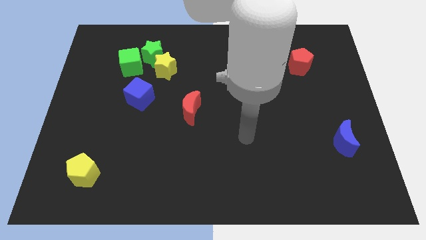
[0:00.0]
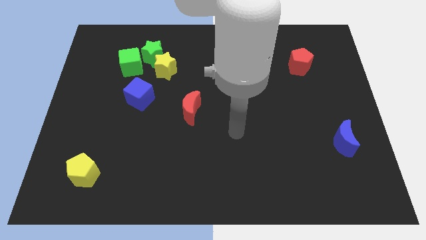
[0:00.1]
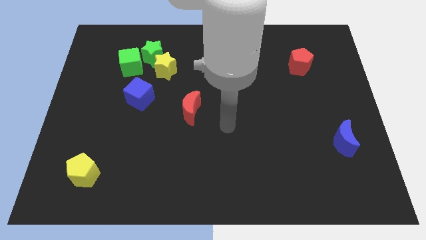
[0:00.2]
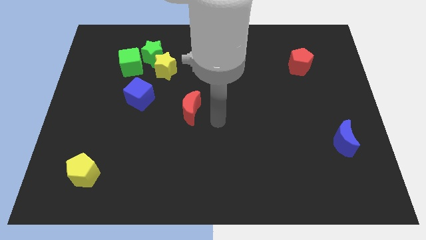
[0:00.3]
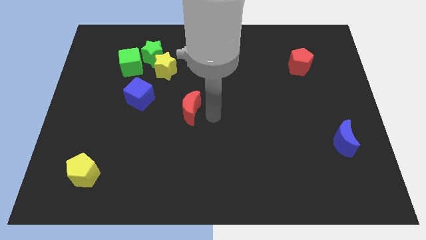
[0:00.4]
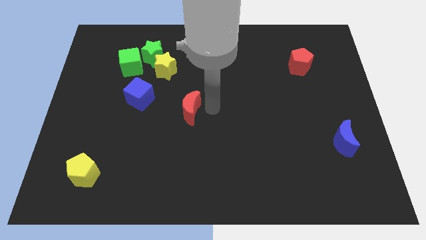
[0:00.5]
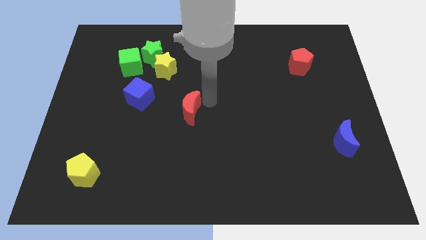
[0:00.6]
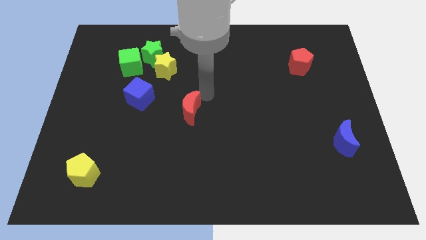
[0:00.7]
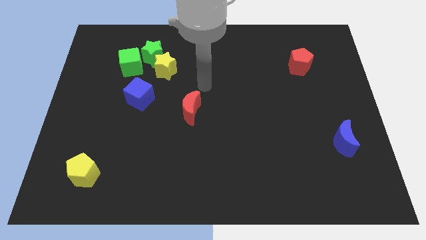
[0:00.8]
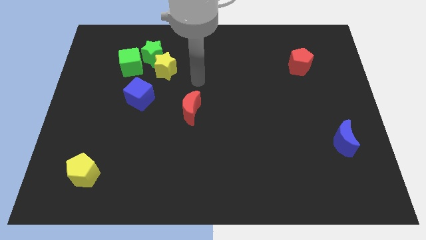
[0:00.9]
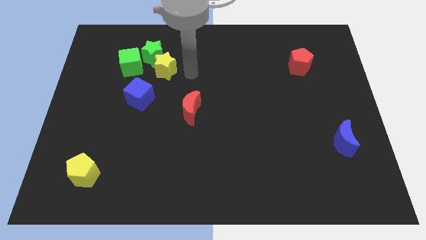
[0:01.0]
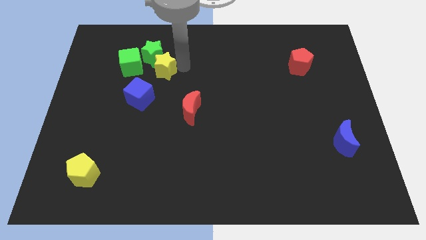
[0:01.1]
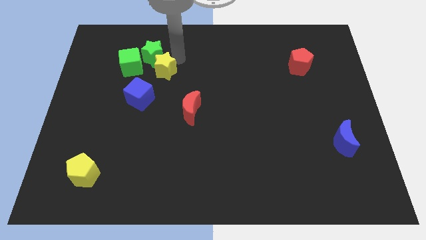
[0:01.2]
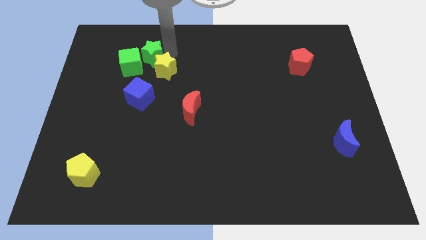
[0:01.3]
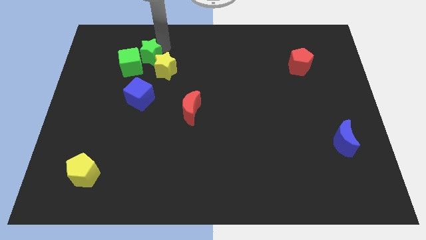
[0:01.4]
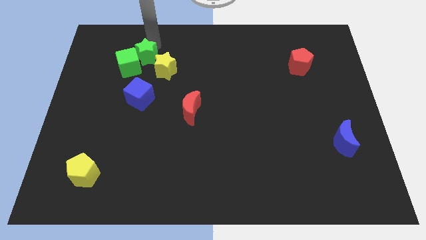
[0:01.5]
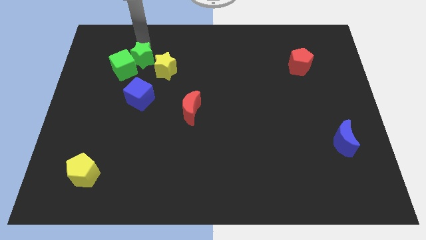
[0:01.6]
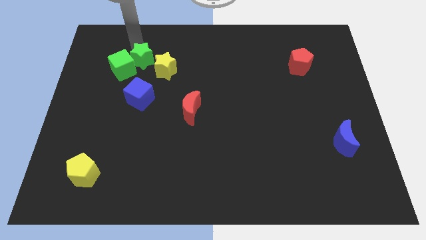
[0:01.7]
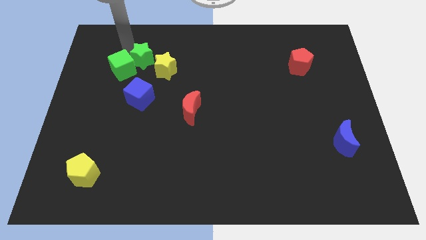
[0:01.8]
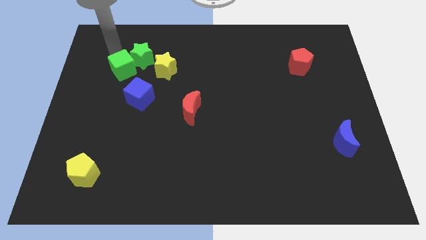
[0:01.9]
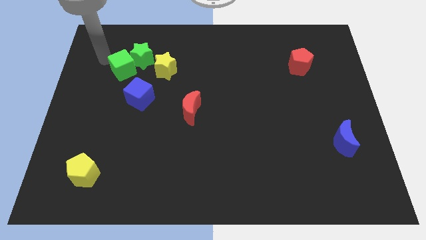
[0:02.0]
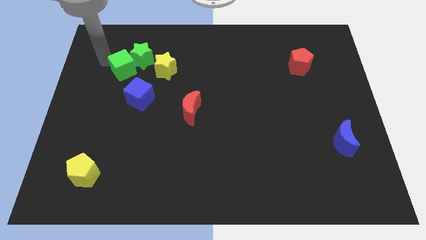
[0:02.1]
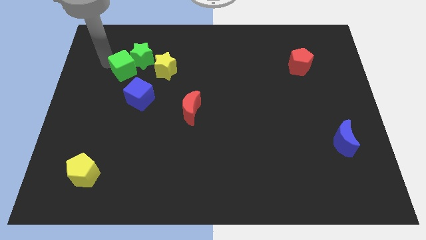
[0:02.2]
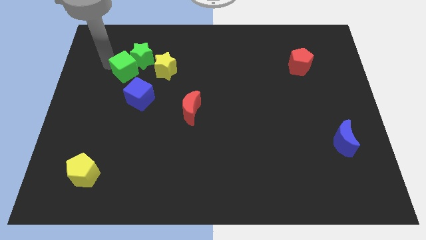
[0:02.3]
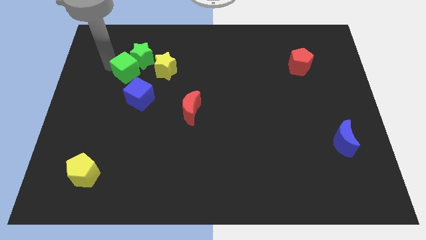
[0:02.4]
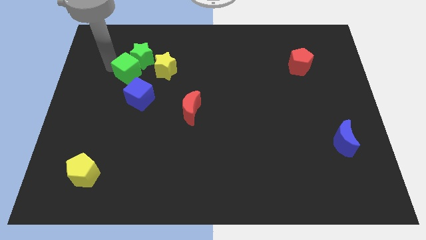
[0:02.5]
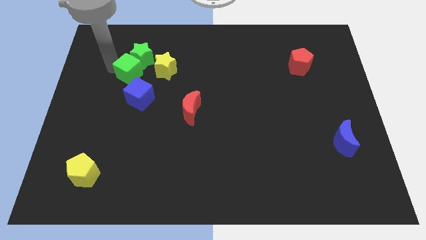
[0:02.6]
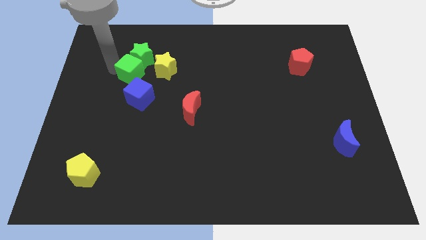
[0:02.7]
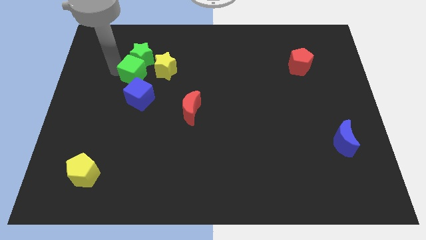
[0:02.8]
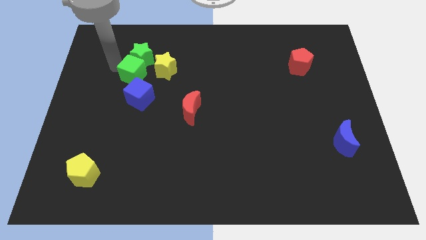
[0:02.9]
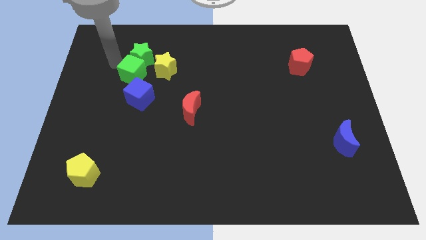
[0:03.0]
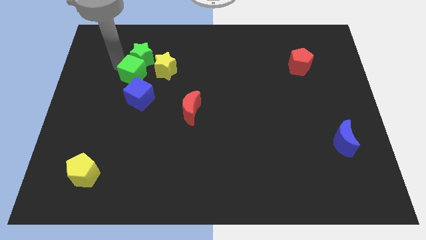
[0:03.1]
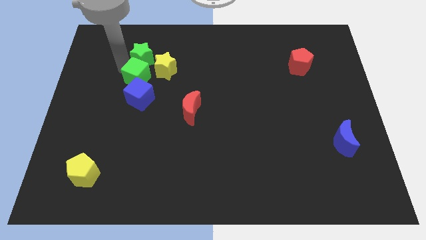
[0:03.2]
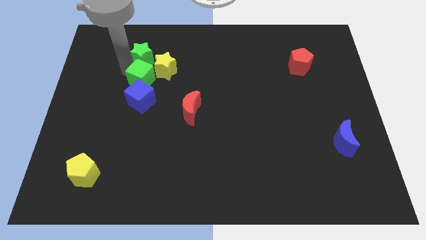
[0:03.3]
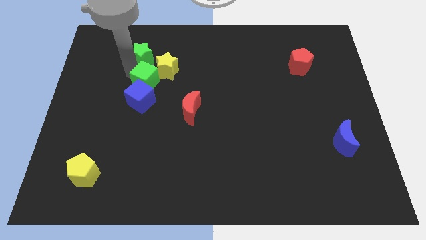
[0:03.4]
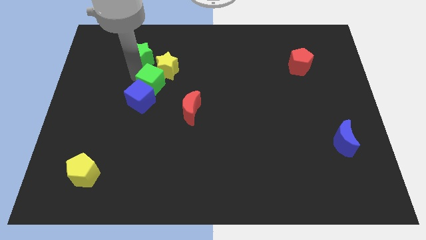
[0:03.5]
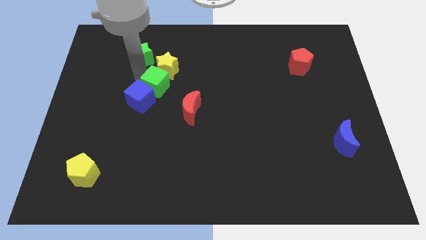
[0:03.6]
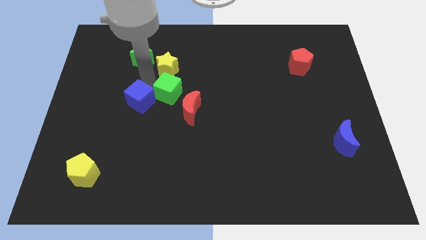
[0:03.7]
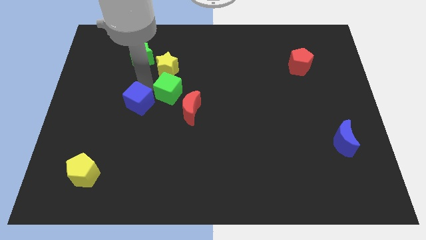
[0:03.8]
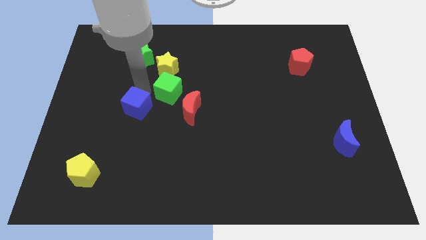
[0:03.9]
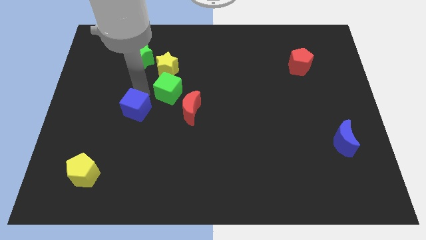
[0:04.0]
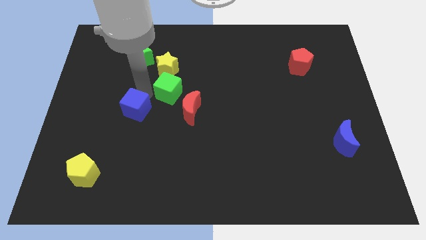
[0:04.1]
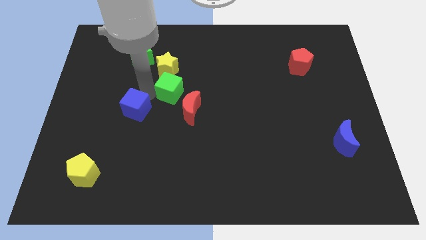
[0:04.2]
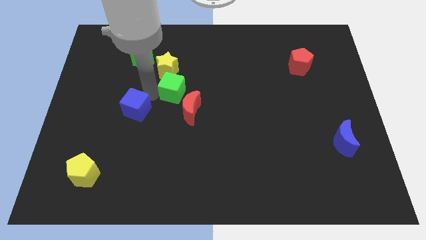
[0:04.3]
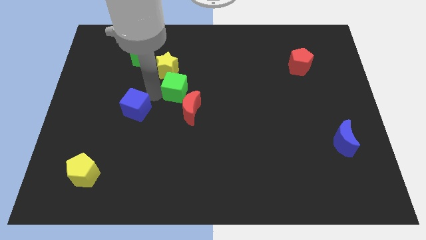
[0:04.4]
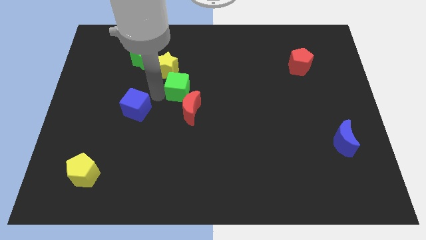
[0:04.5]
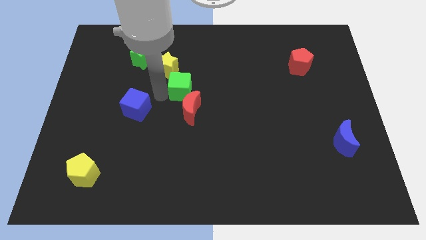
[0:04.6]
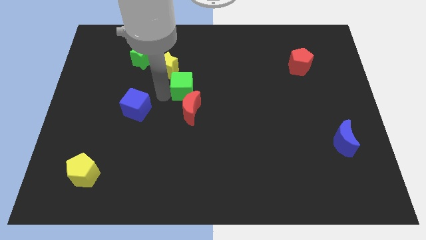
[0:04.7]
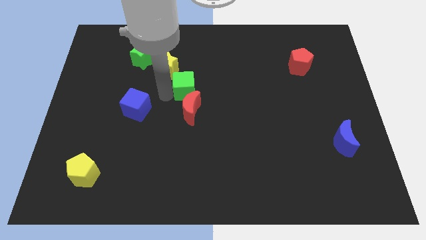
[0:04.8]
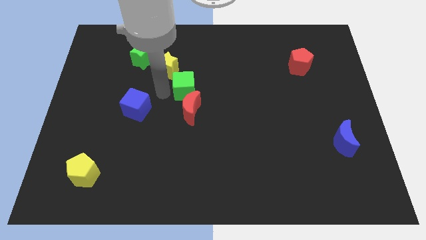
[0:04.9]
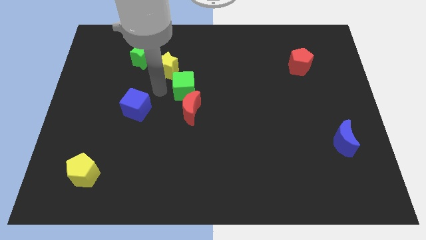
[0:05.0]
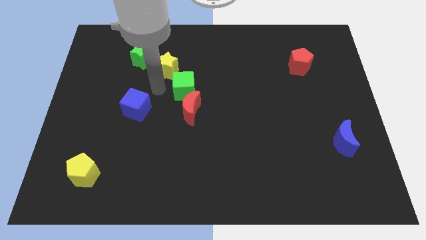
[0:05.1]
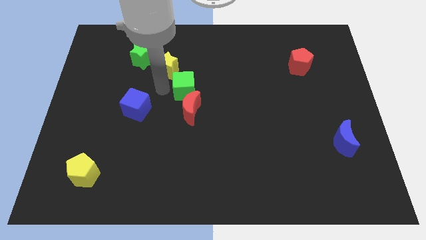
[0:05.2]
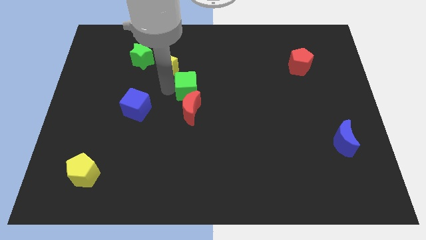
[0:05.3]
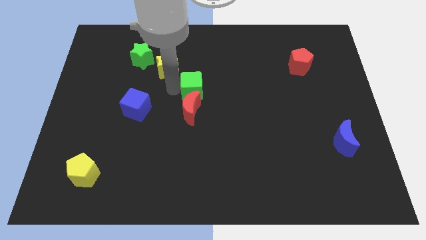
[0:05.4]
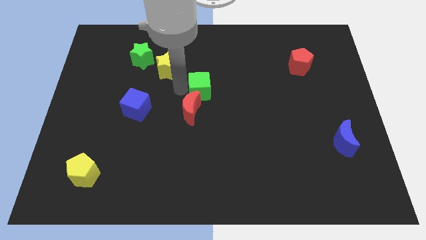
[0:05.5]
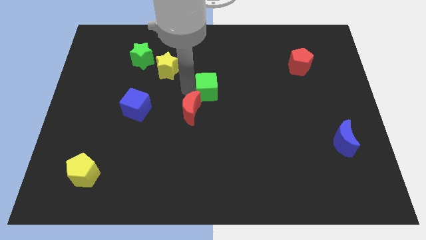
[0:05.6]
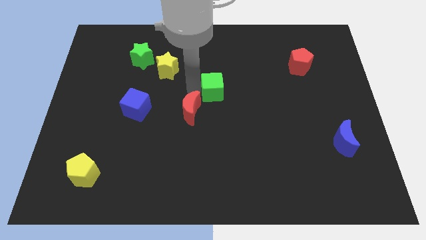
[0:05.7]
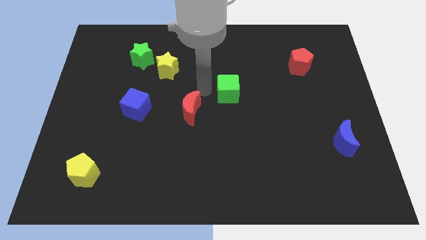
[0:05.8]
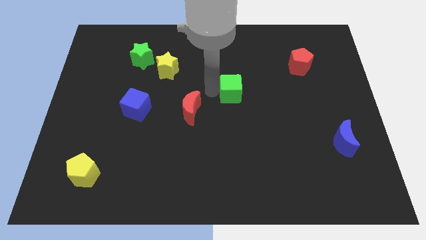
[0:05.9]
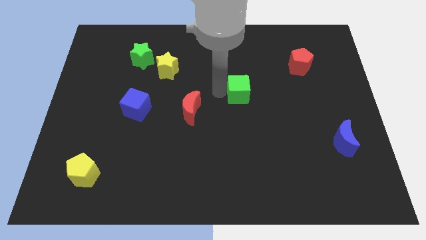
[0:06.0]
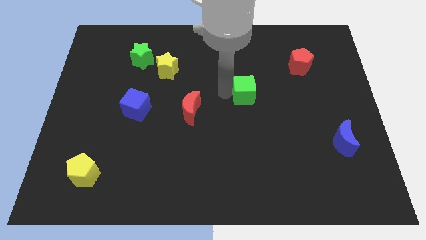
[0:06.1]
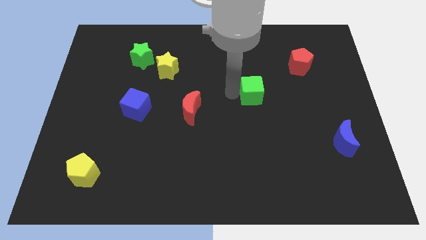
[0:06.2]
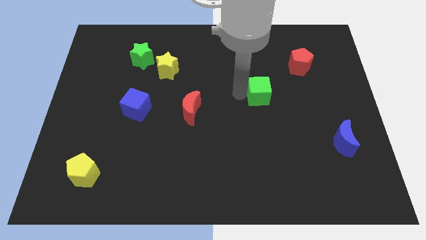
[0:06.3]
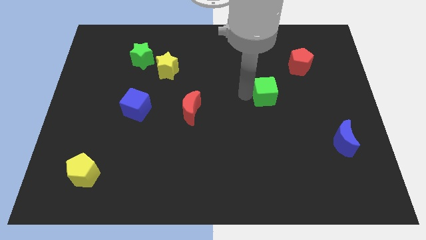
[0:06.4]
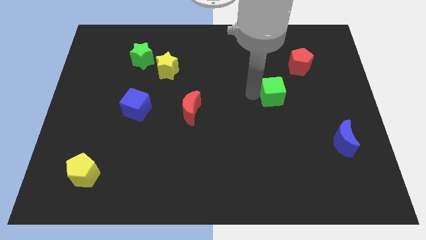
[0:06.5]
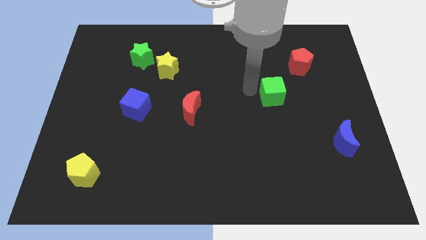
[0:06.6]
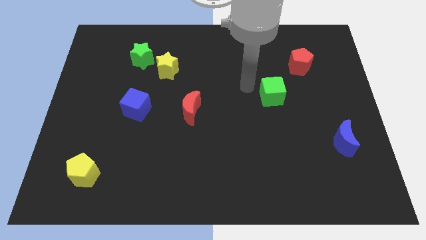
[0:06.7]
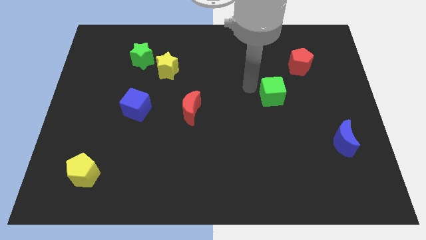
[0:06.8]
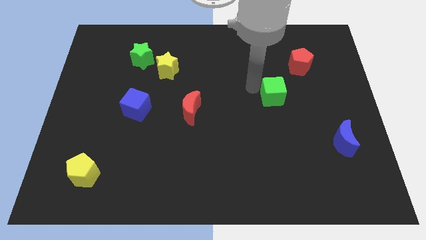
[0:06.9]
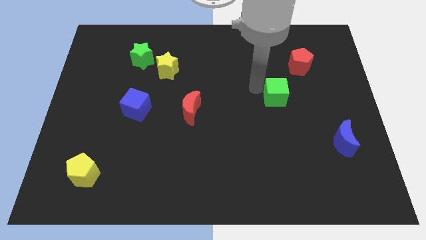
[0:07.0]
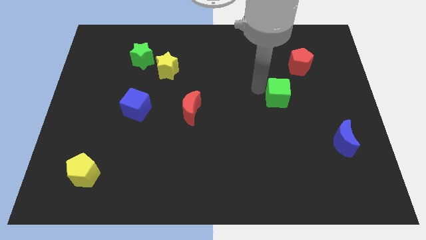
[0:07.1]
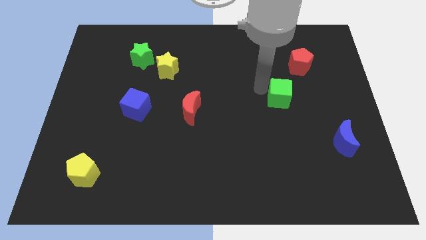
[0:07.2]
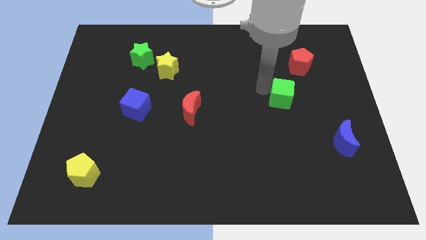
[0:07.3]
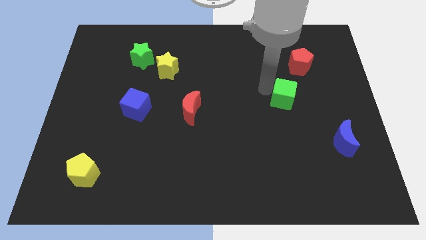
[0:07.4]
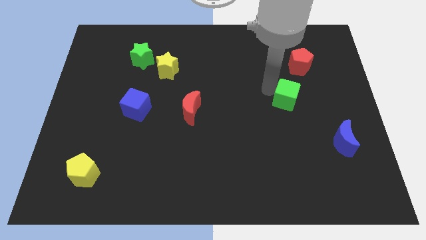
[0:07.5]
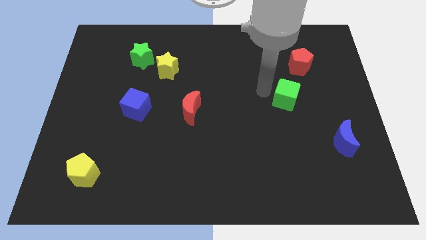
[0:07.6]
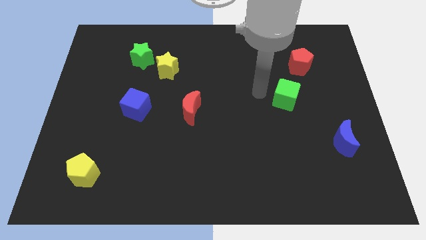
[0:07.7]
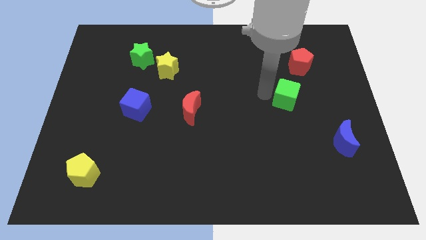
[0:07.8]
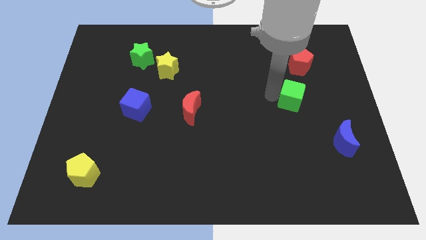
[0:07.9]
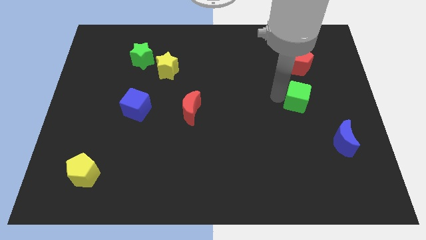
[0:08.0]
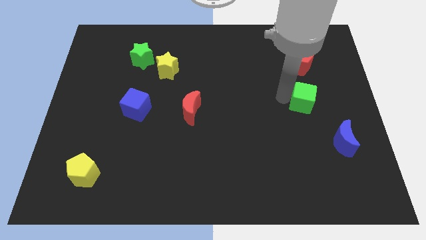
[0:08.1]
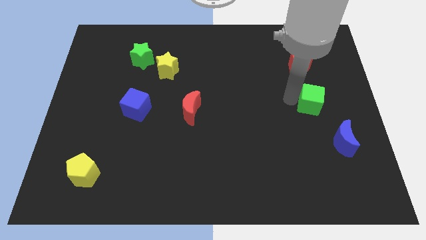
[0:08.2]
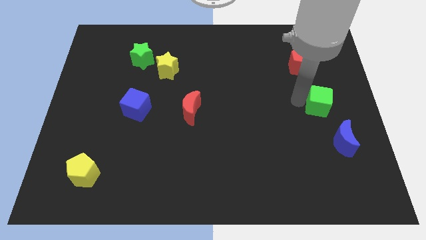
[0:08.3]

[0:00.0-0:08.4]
move the green cube to the top side of the blue moon
